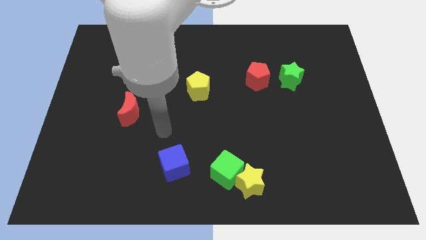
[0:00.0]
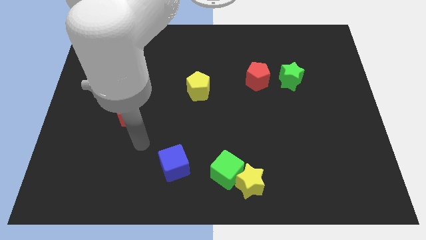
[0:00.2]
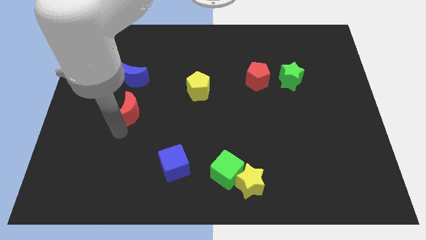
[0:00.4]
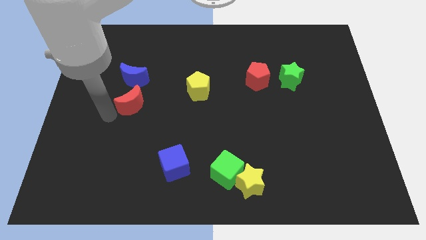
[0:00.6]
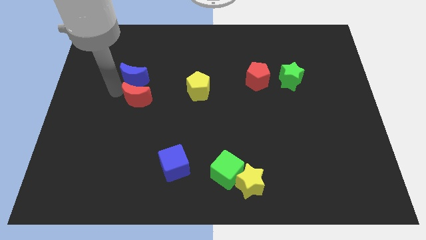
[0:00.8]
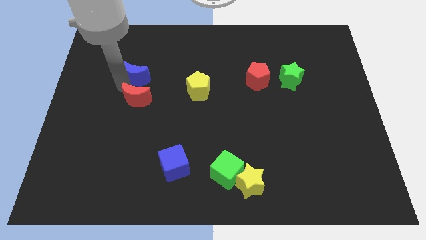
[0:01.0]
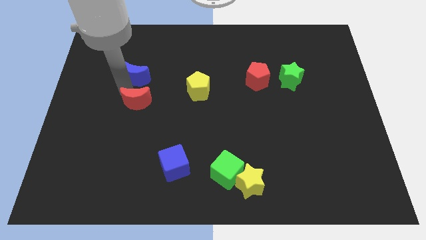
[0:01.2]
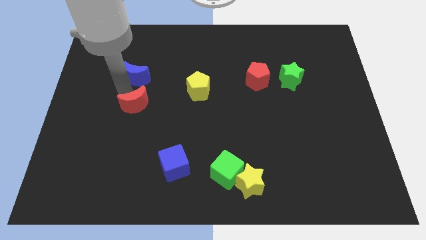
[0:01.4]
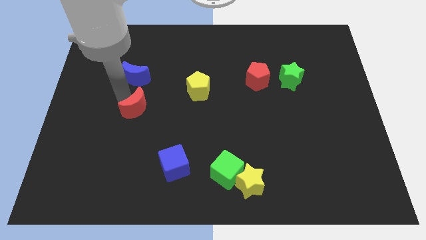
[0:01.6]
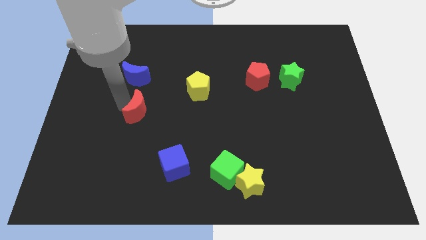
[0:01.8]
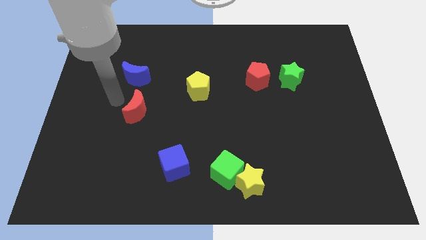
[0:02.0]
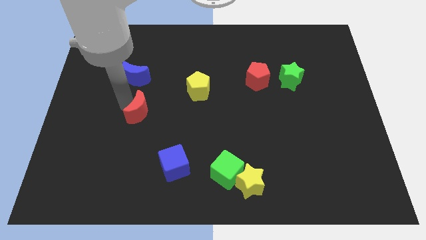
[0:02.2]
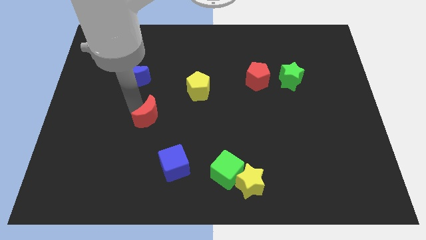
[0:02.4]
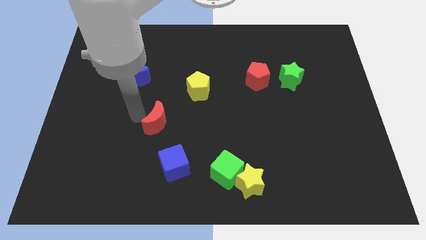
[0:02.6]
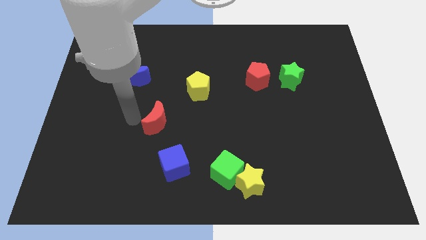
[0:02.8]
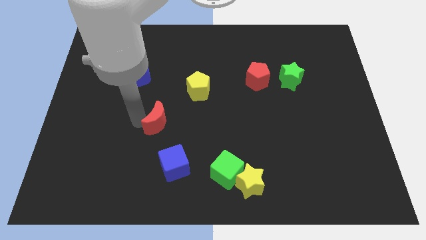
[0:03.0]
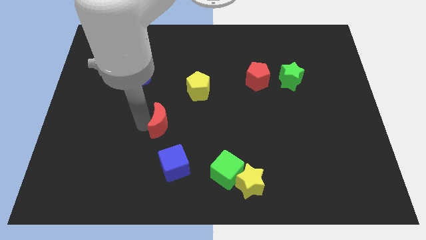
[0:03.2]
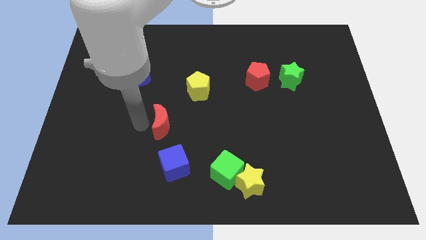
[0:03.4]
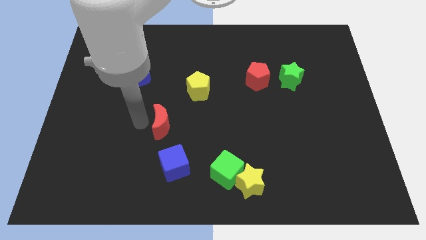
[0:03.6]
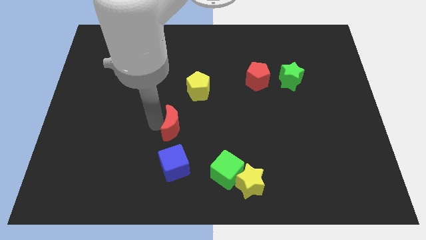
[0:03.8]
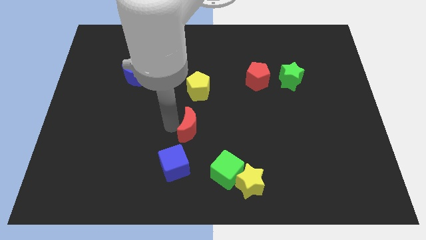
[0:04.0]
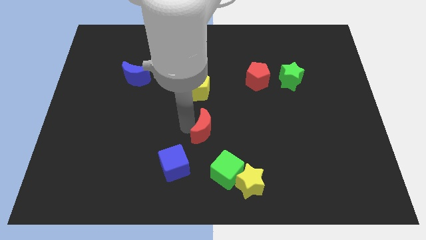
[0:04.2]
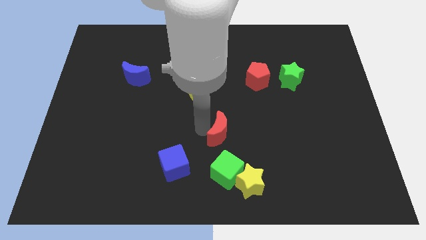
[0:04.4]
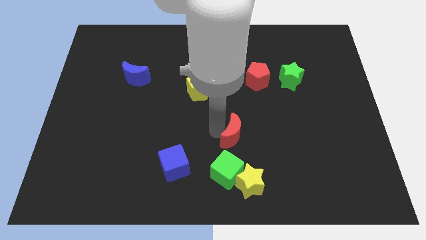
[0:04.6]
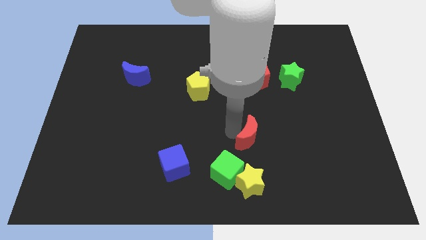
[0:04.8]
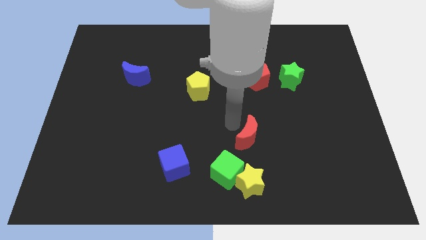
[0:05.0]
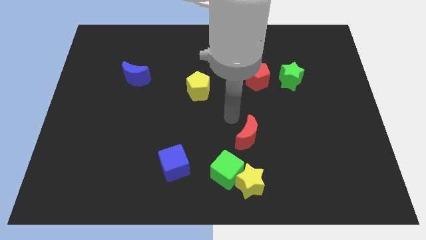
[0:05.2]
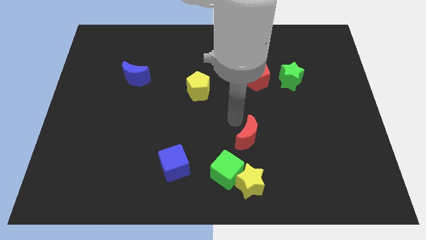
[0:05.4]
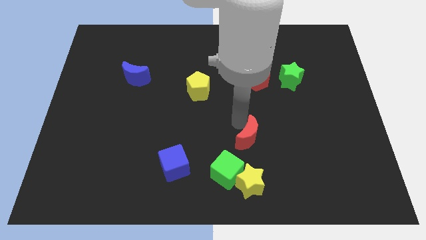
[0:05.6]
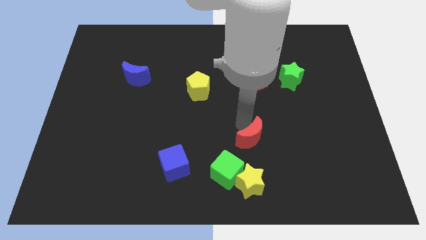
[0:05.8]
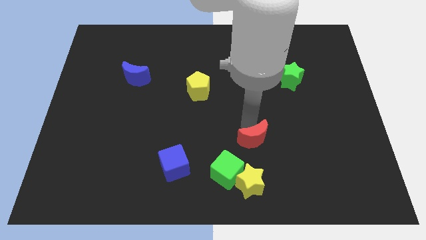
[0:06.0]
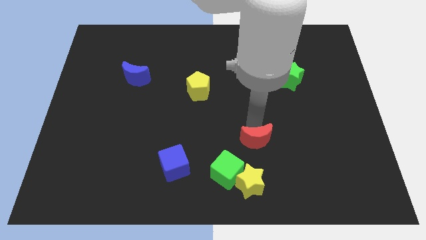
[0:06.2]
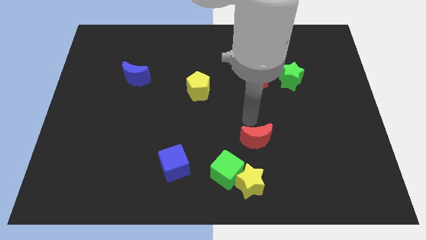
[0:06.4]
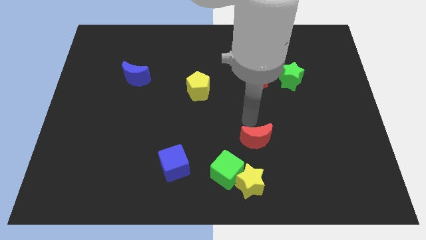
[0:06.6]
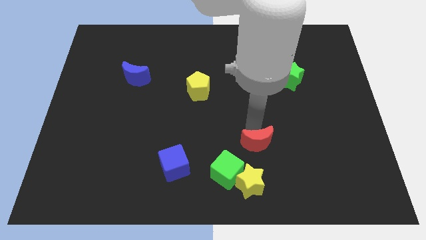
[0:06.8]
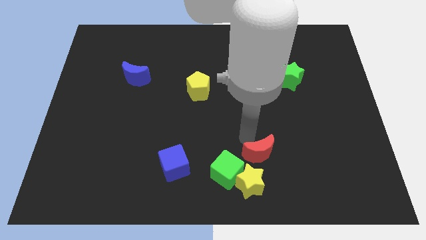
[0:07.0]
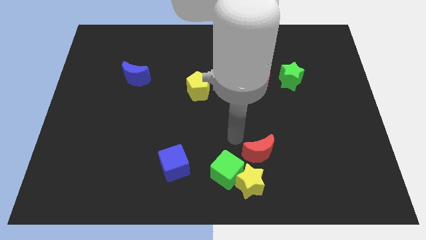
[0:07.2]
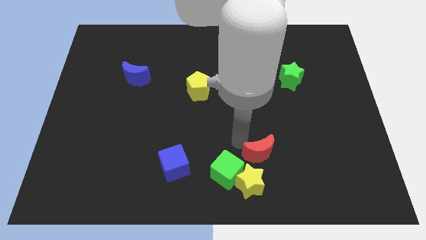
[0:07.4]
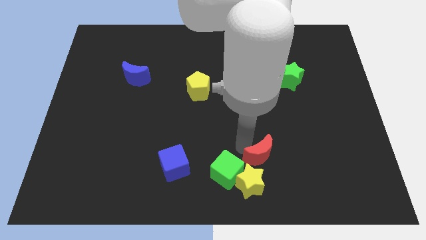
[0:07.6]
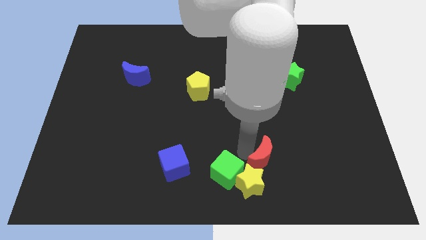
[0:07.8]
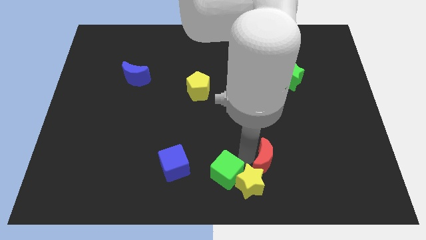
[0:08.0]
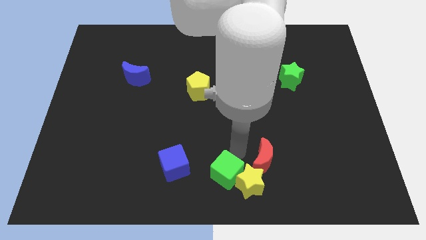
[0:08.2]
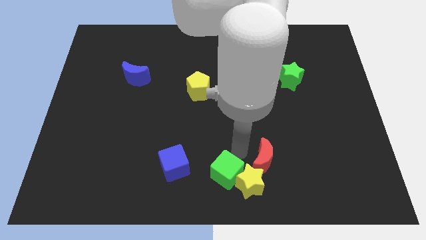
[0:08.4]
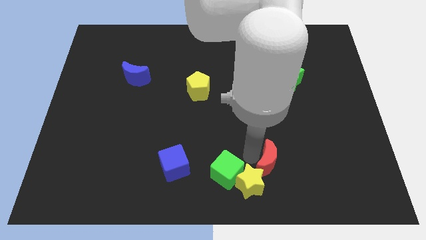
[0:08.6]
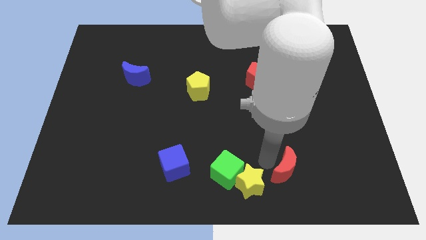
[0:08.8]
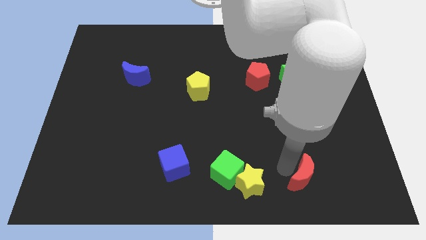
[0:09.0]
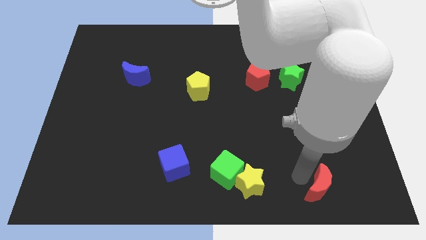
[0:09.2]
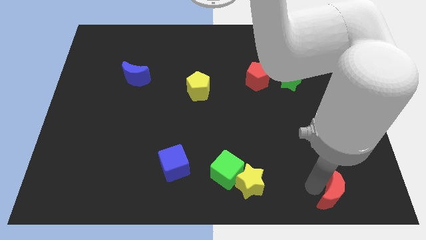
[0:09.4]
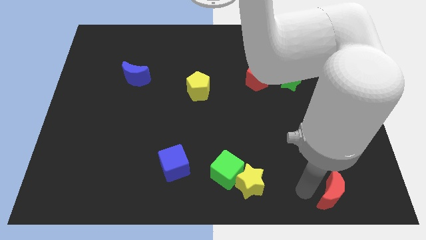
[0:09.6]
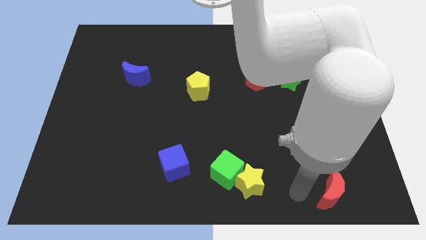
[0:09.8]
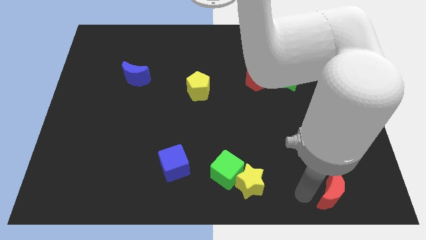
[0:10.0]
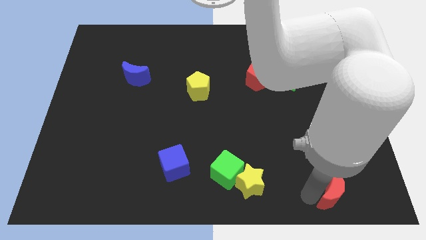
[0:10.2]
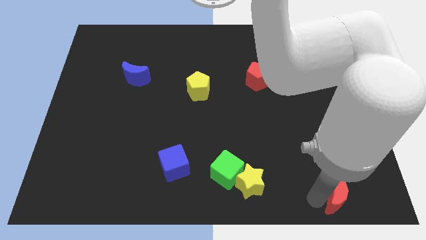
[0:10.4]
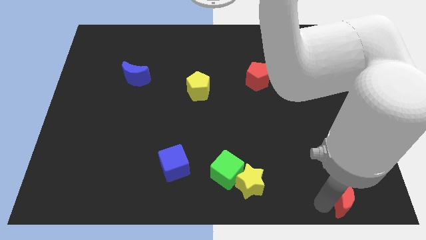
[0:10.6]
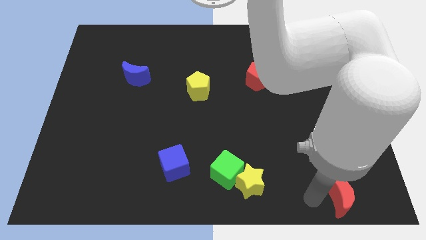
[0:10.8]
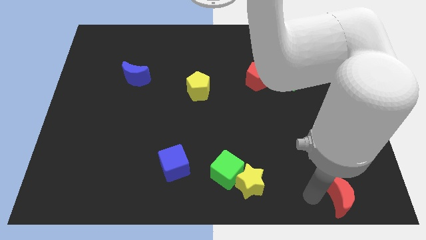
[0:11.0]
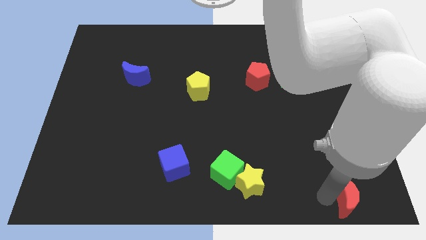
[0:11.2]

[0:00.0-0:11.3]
slide the red moon to the bottom right corner

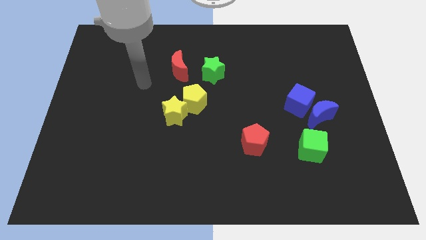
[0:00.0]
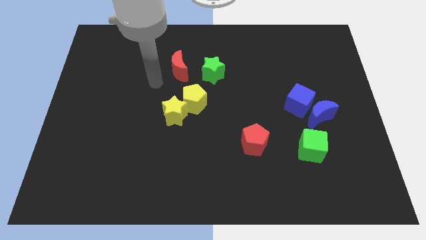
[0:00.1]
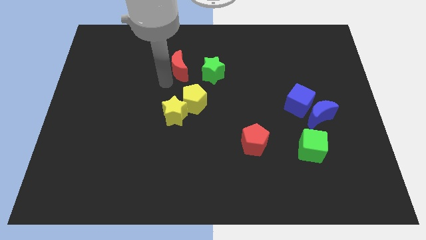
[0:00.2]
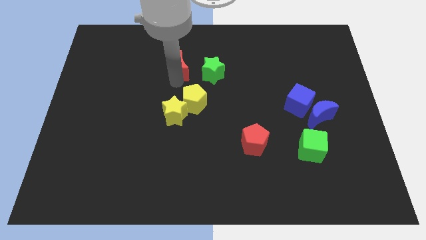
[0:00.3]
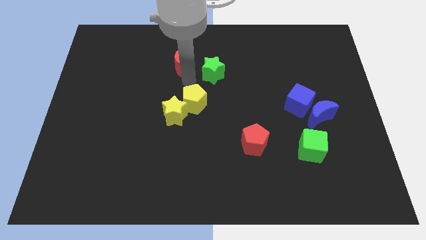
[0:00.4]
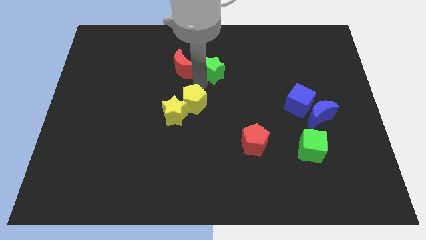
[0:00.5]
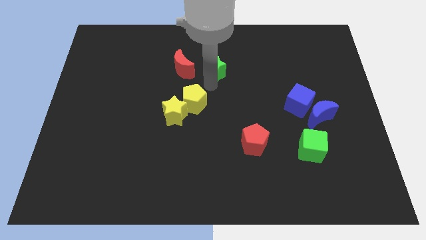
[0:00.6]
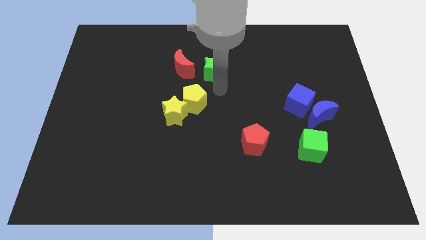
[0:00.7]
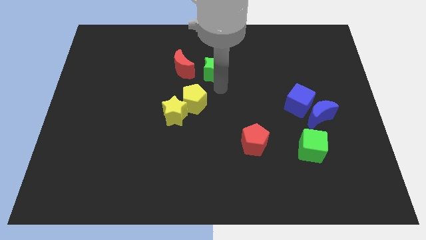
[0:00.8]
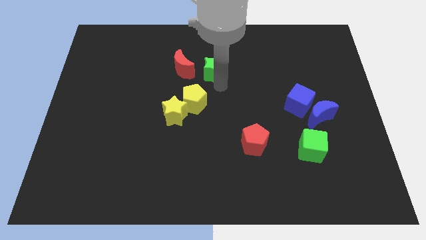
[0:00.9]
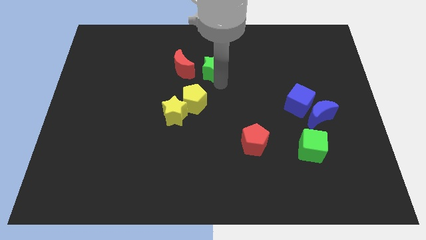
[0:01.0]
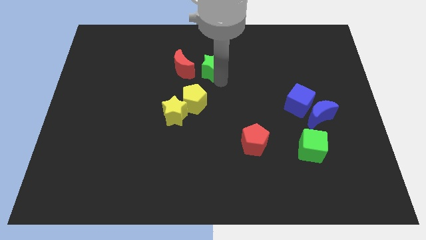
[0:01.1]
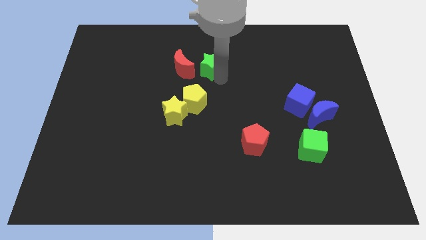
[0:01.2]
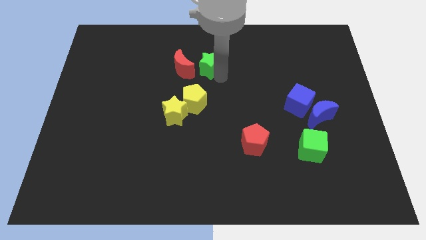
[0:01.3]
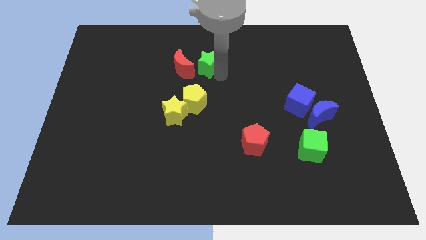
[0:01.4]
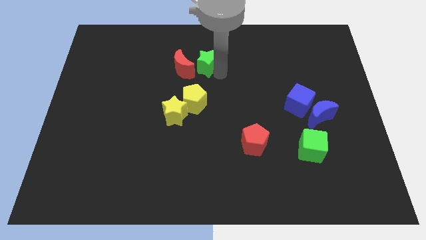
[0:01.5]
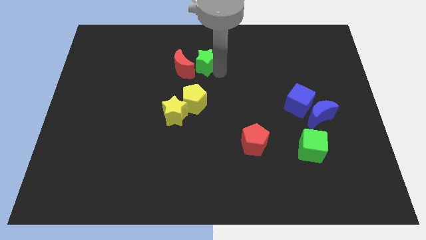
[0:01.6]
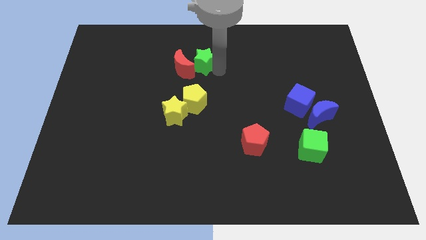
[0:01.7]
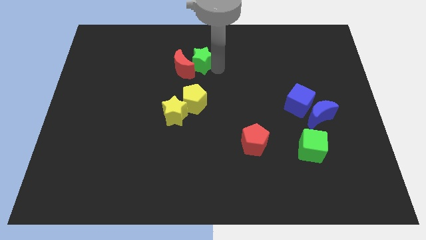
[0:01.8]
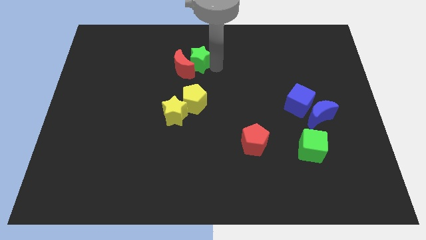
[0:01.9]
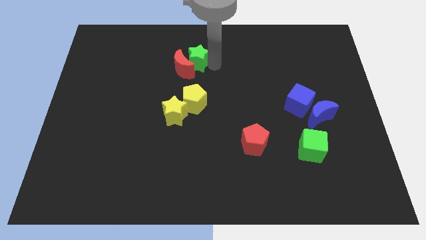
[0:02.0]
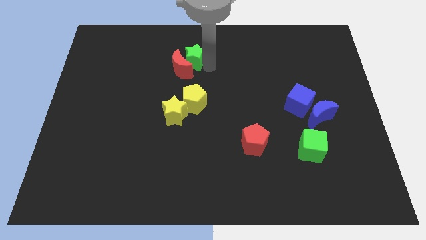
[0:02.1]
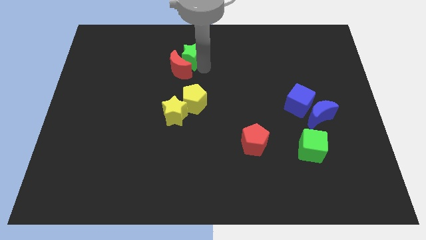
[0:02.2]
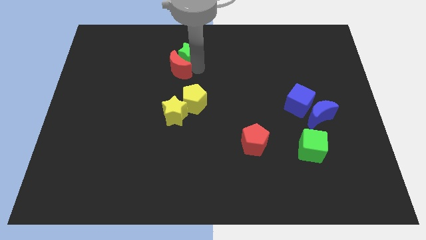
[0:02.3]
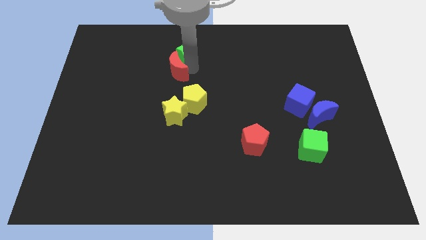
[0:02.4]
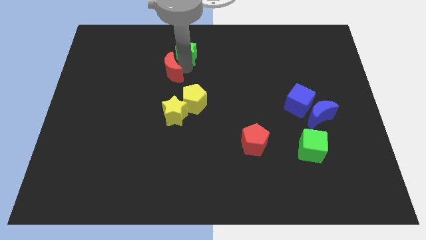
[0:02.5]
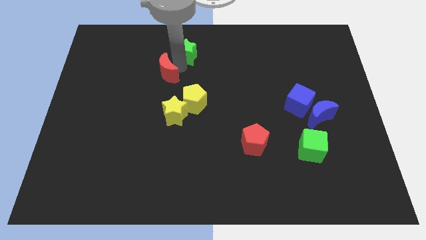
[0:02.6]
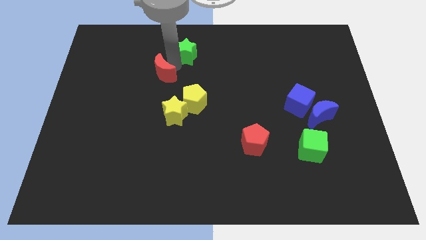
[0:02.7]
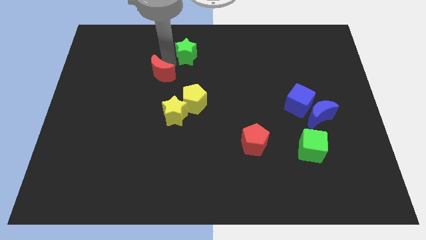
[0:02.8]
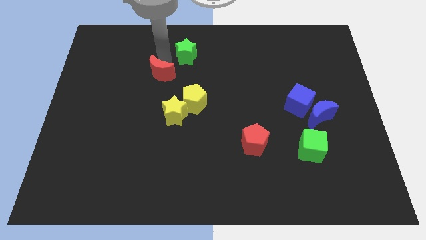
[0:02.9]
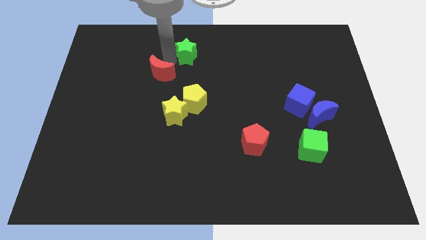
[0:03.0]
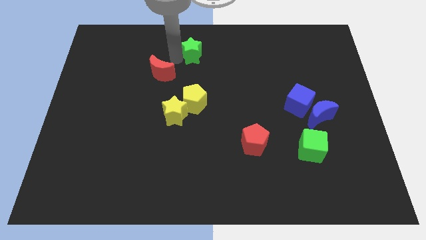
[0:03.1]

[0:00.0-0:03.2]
push the green star to the towards your base
